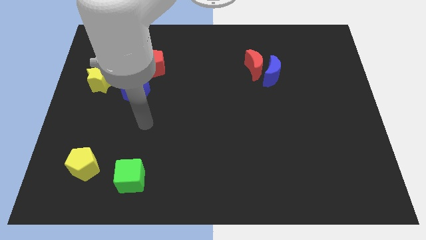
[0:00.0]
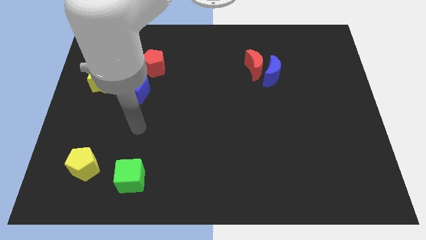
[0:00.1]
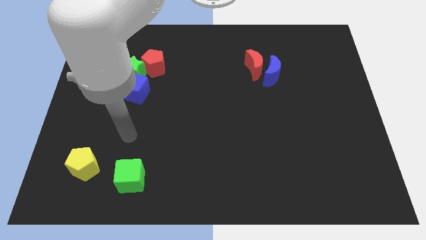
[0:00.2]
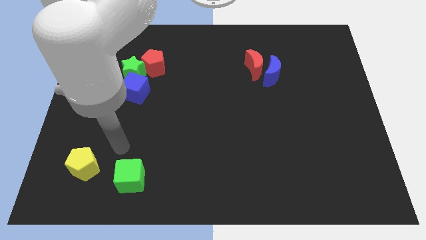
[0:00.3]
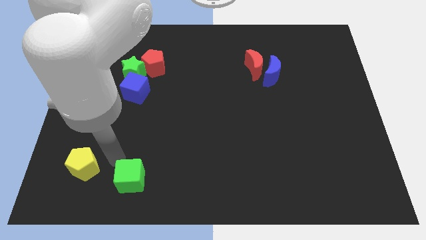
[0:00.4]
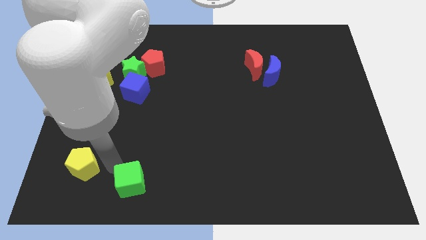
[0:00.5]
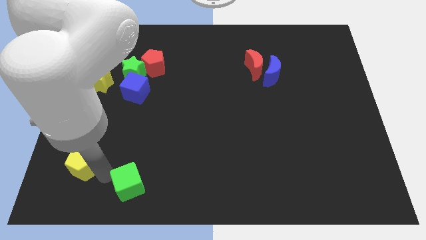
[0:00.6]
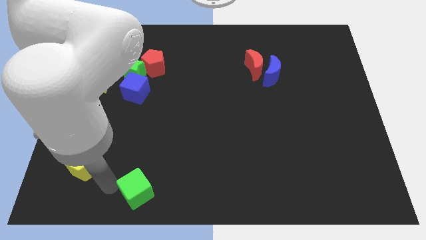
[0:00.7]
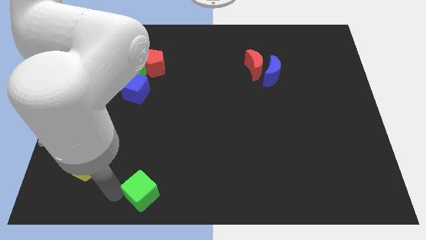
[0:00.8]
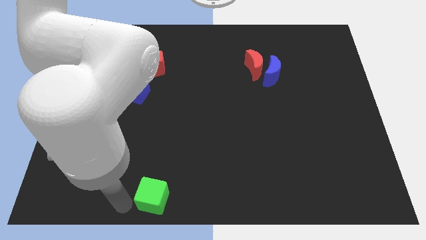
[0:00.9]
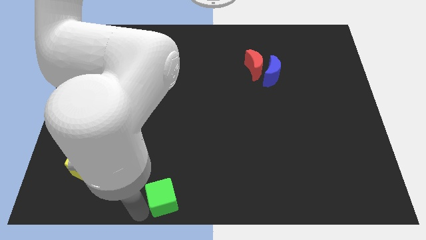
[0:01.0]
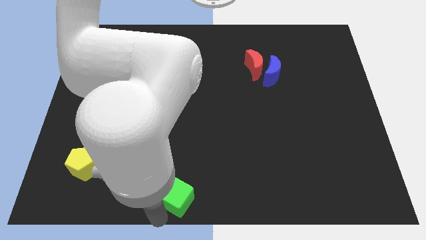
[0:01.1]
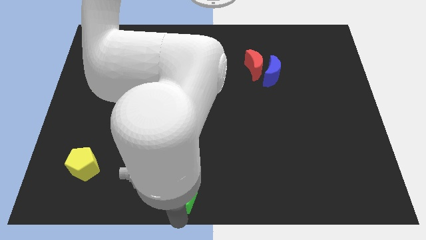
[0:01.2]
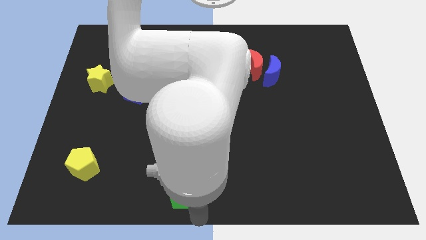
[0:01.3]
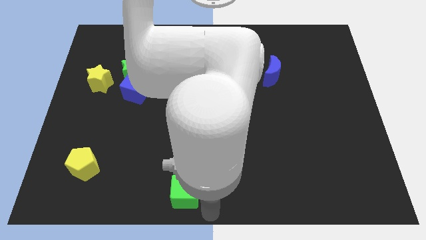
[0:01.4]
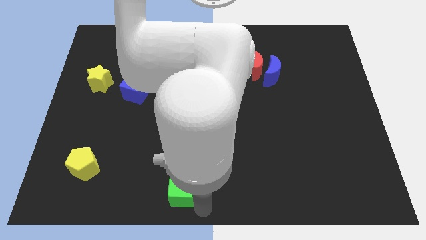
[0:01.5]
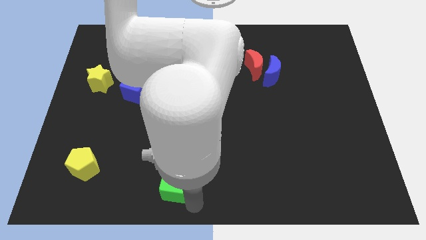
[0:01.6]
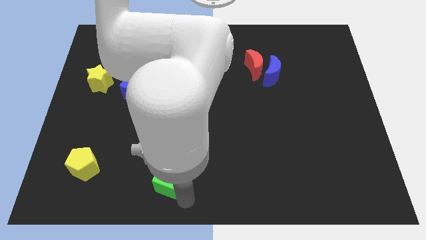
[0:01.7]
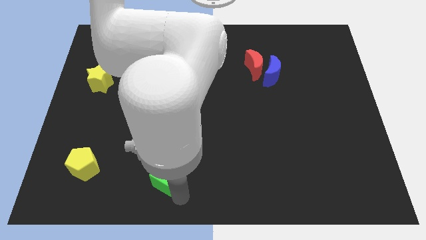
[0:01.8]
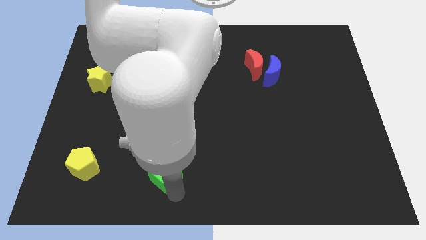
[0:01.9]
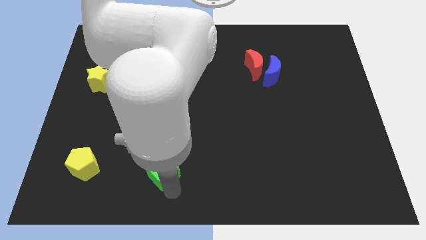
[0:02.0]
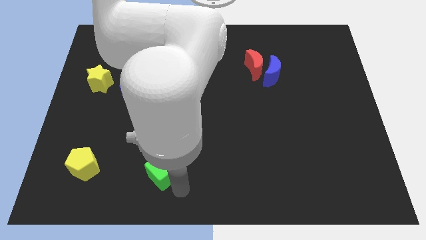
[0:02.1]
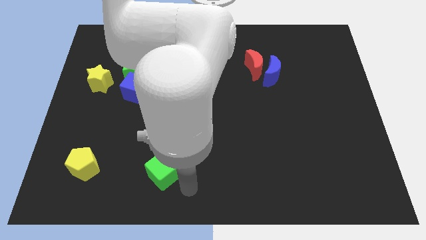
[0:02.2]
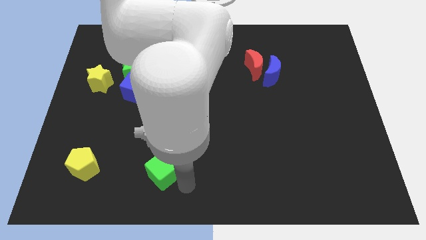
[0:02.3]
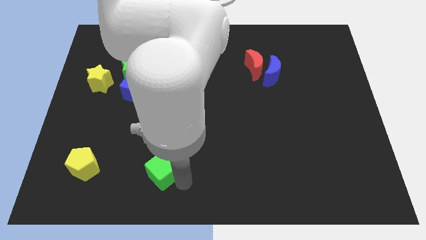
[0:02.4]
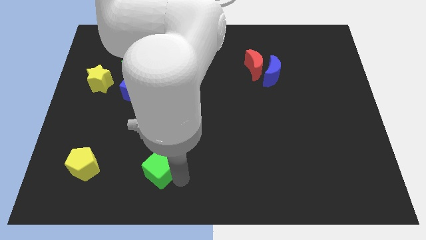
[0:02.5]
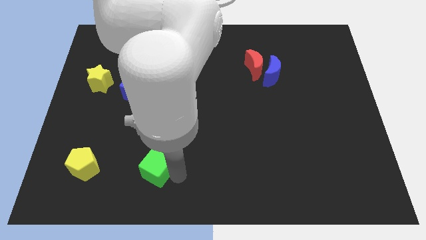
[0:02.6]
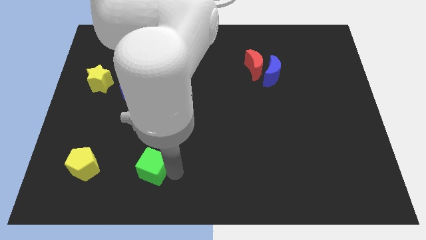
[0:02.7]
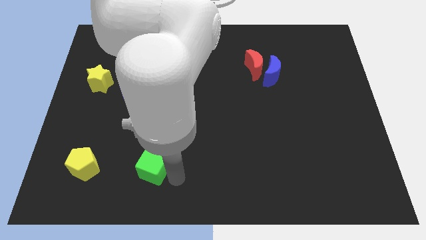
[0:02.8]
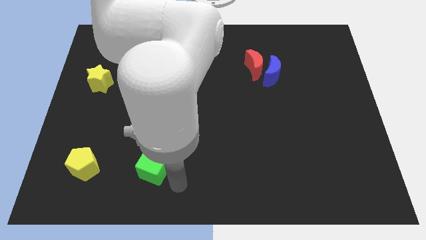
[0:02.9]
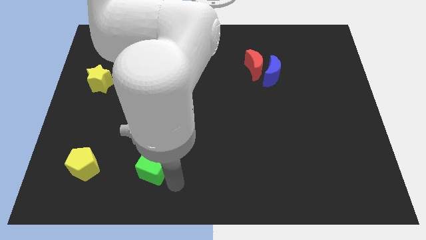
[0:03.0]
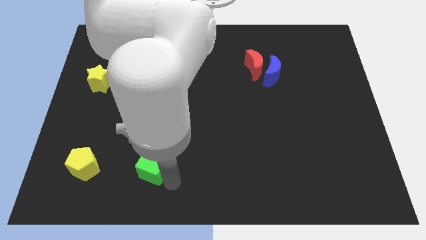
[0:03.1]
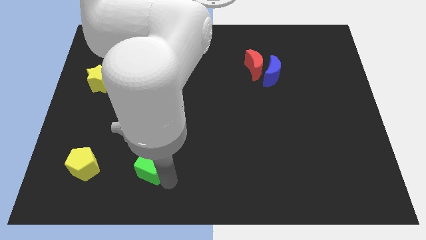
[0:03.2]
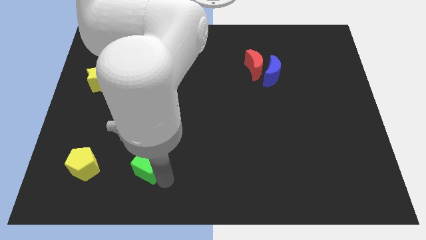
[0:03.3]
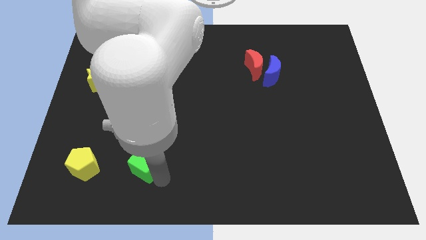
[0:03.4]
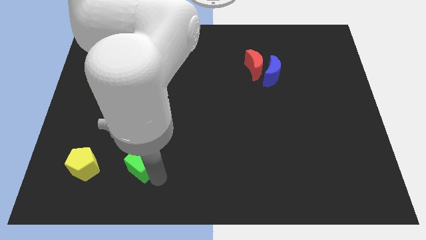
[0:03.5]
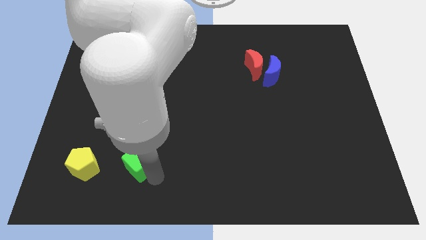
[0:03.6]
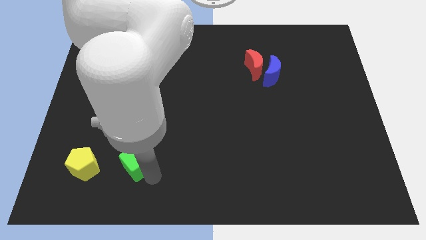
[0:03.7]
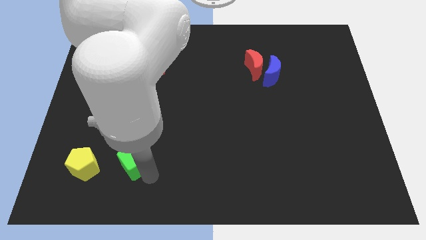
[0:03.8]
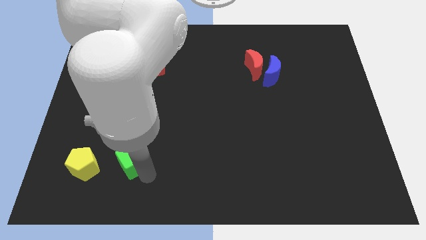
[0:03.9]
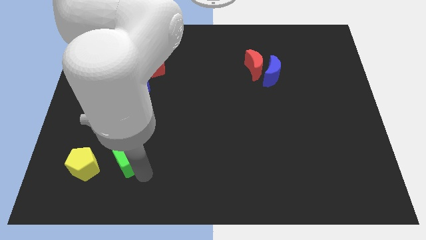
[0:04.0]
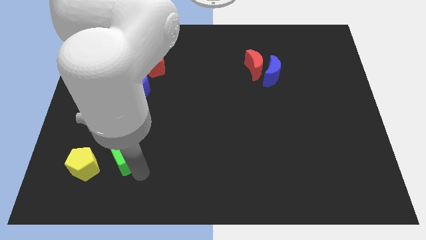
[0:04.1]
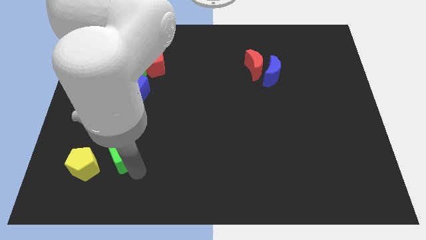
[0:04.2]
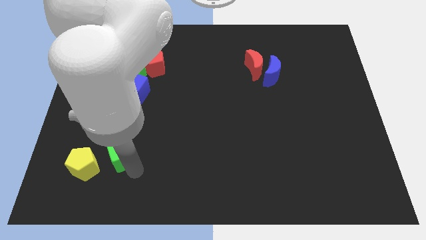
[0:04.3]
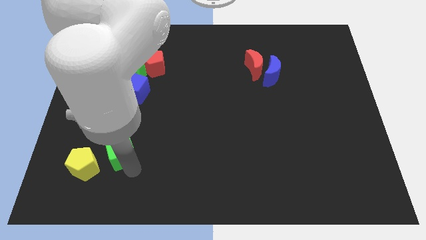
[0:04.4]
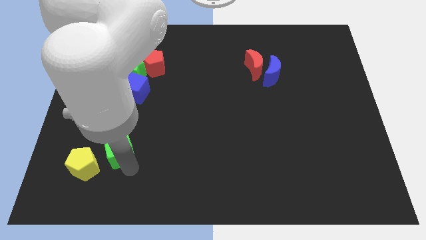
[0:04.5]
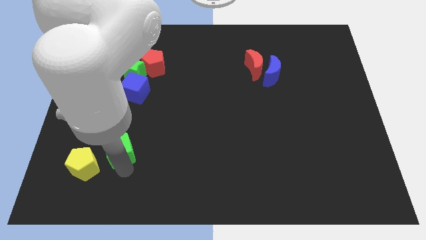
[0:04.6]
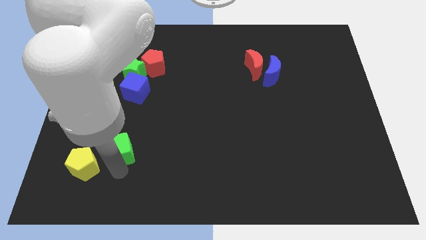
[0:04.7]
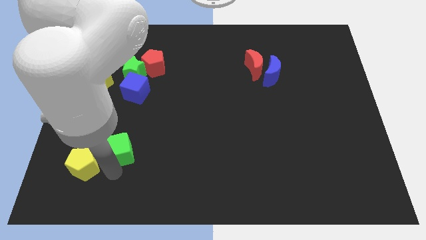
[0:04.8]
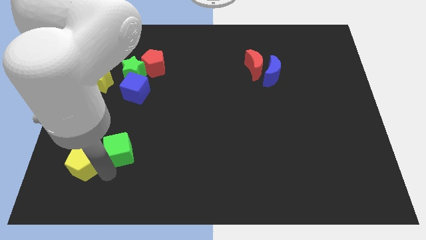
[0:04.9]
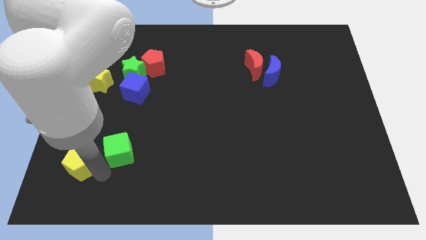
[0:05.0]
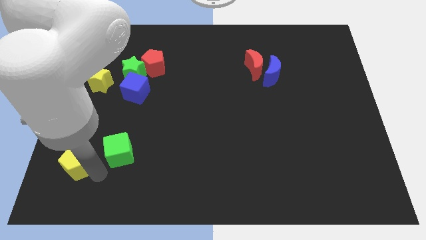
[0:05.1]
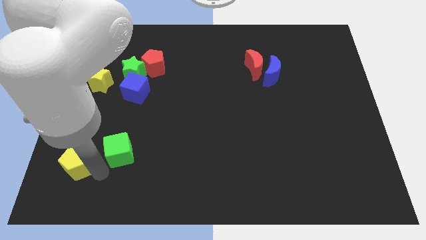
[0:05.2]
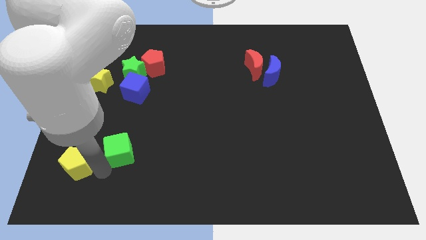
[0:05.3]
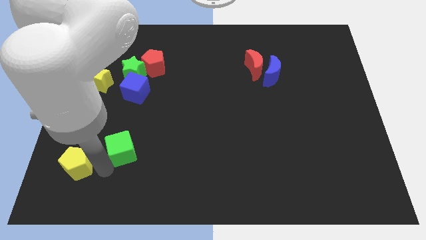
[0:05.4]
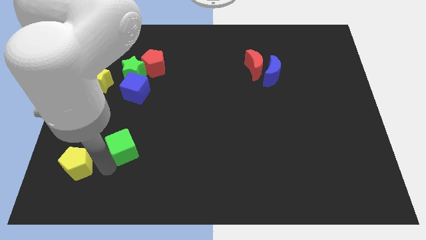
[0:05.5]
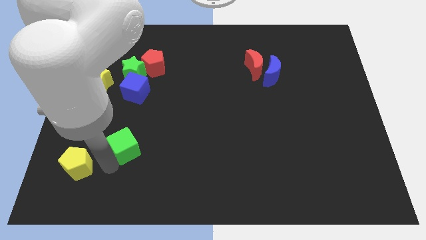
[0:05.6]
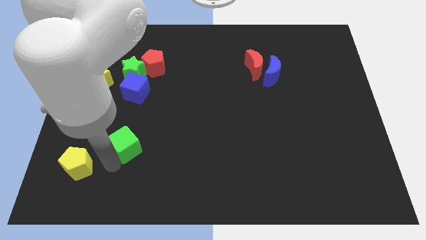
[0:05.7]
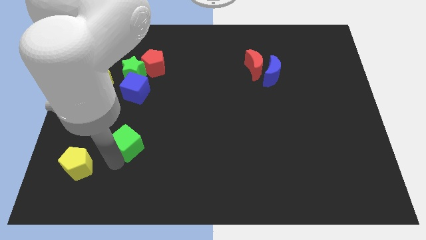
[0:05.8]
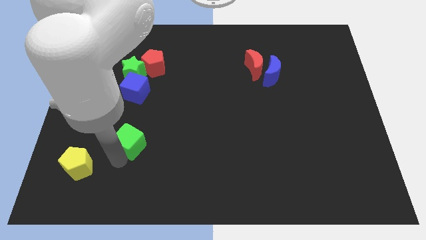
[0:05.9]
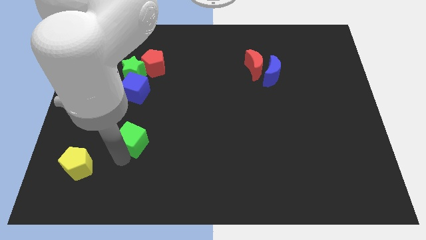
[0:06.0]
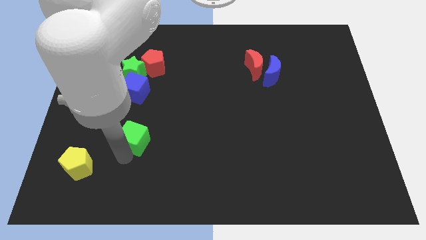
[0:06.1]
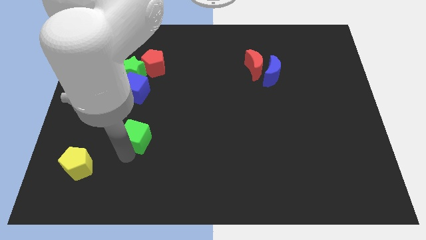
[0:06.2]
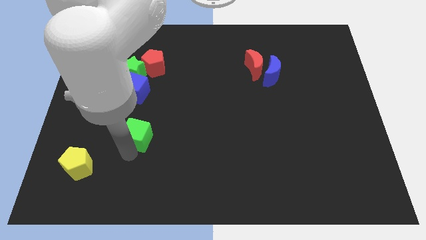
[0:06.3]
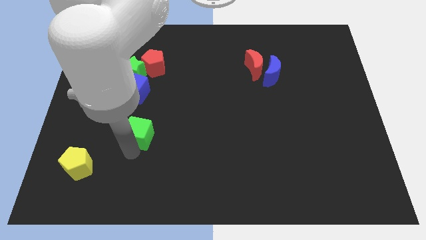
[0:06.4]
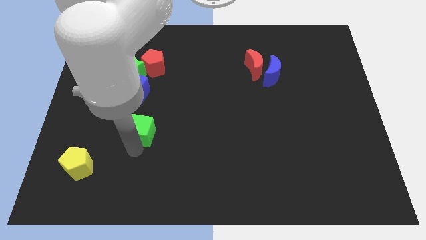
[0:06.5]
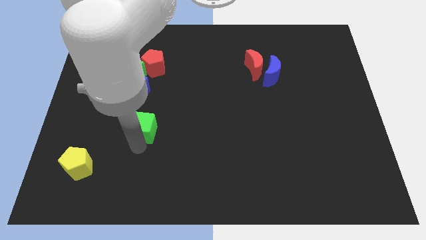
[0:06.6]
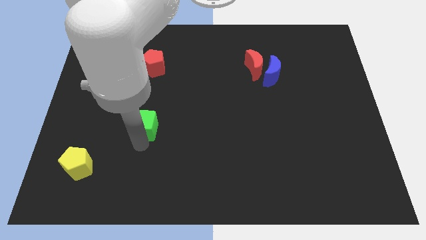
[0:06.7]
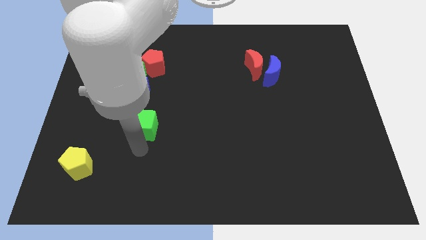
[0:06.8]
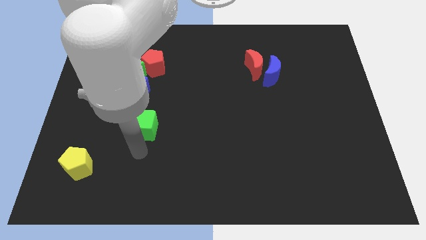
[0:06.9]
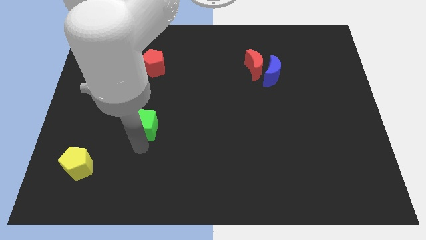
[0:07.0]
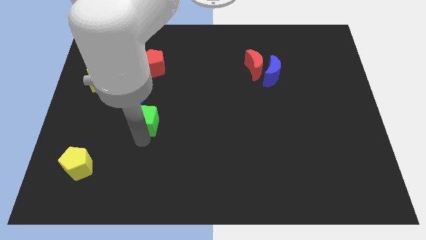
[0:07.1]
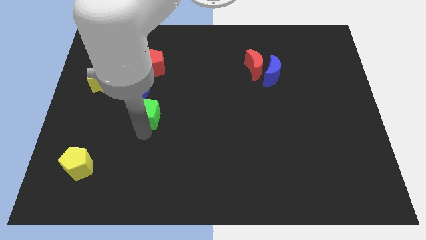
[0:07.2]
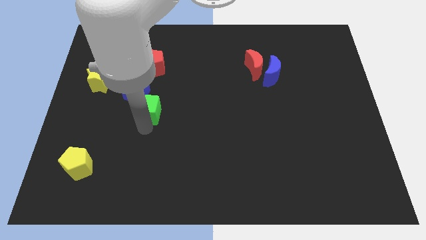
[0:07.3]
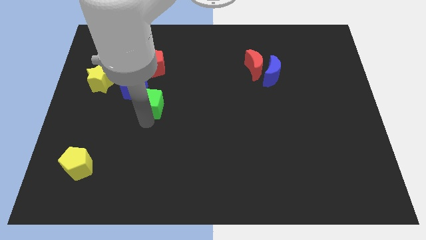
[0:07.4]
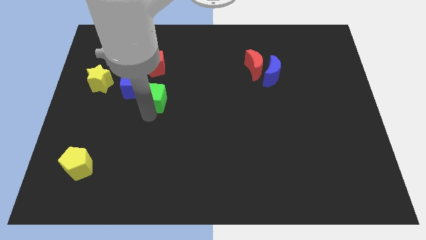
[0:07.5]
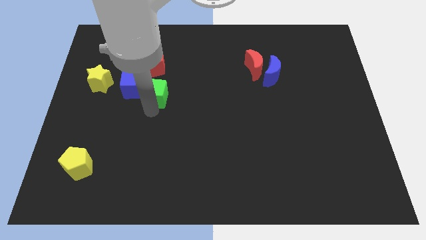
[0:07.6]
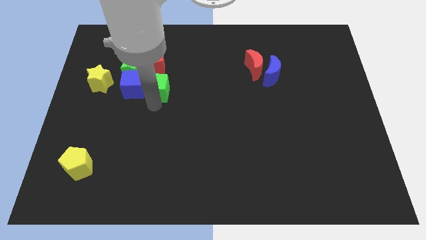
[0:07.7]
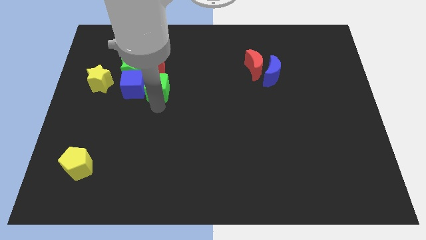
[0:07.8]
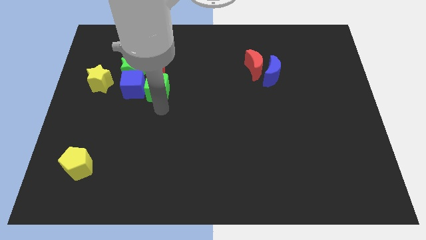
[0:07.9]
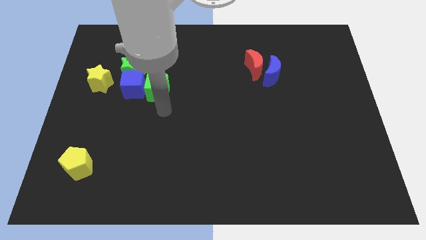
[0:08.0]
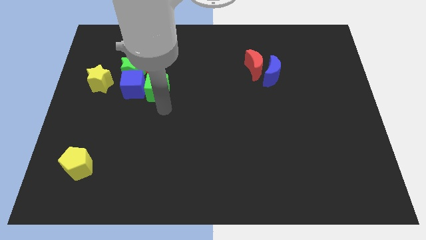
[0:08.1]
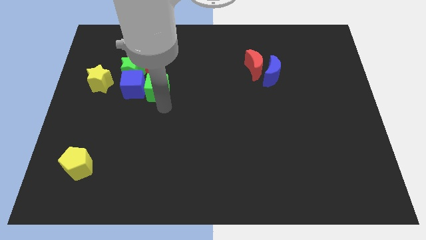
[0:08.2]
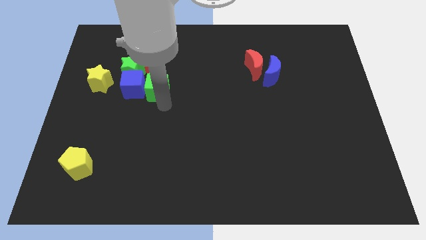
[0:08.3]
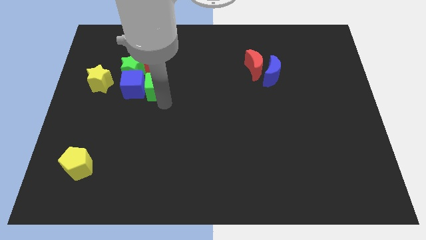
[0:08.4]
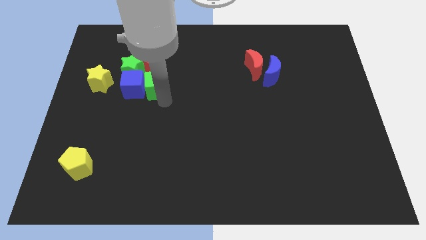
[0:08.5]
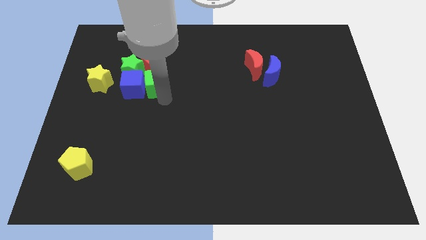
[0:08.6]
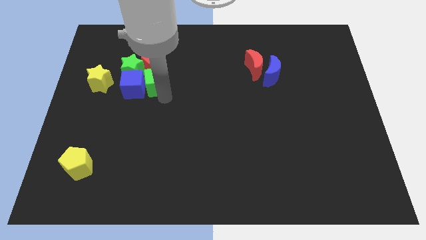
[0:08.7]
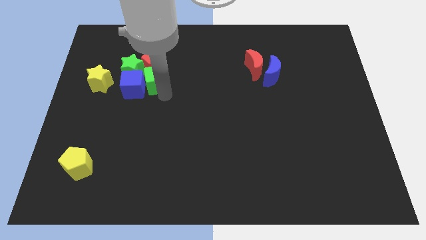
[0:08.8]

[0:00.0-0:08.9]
slide the green cube next to the red pentagon
